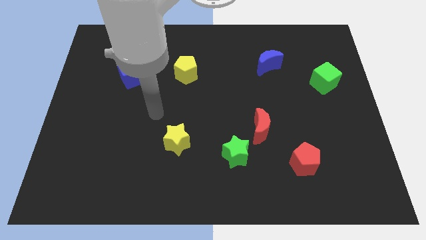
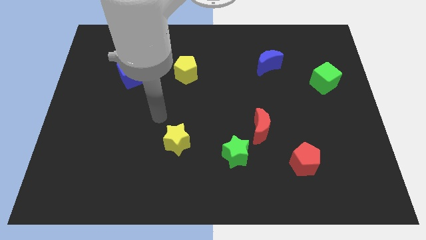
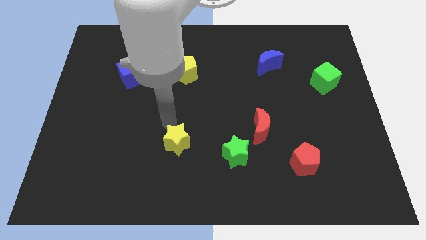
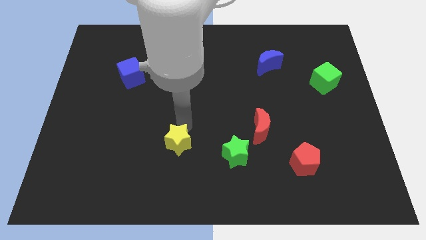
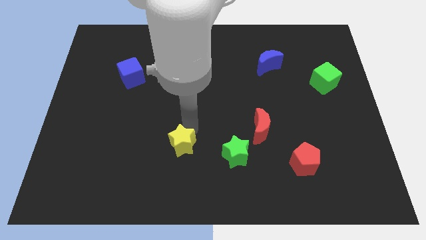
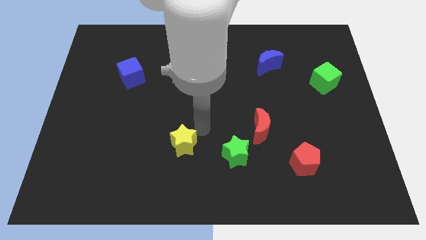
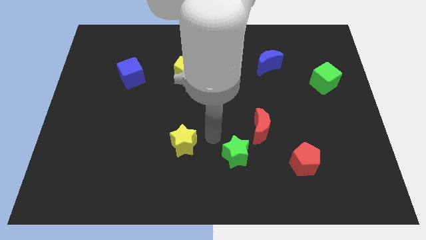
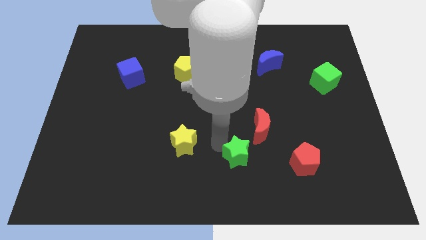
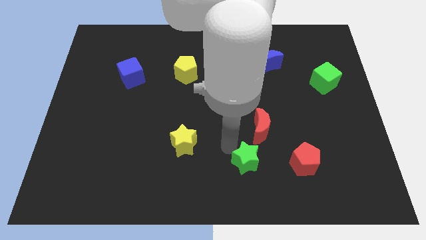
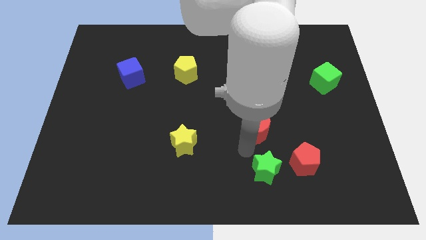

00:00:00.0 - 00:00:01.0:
move the red moon away from the green star

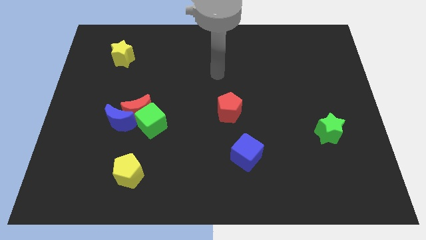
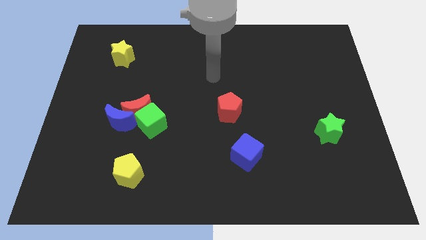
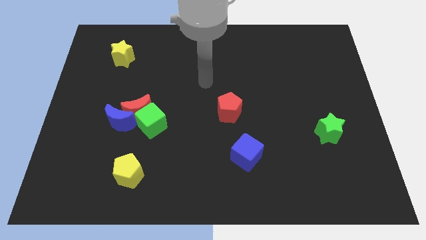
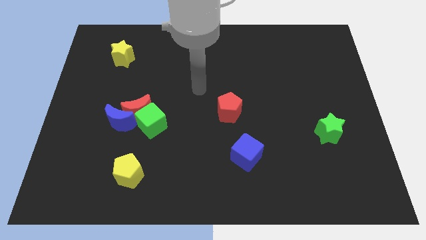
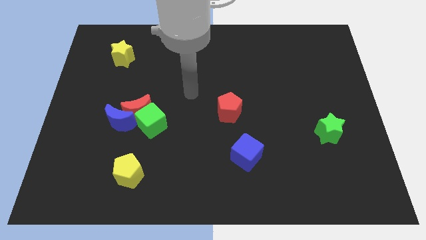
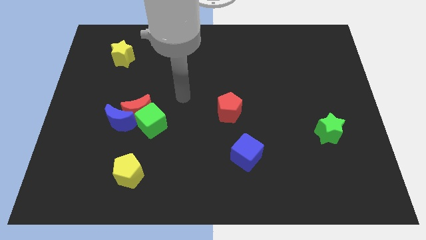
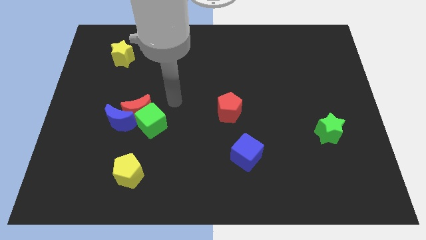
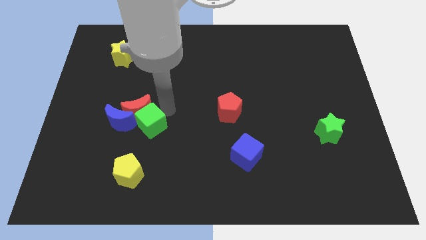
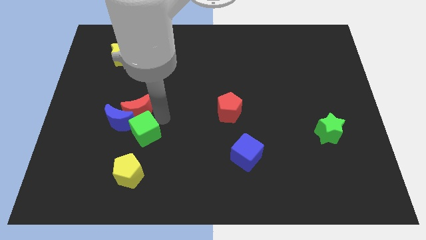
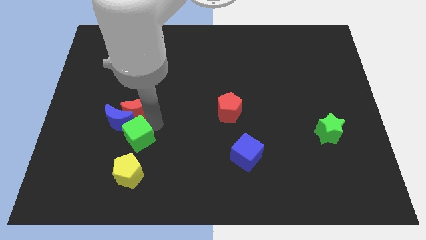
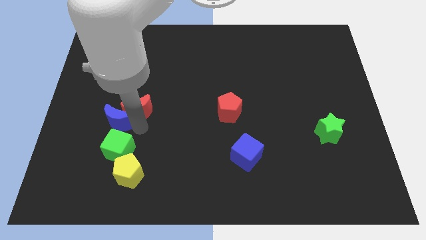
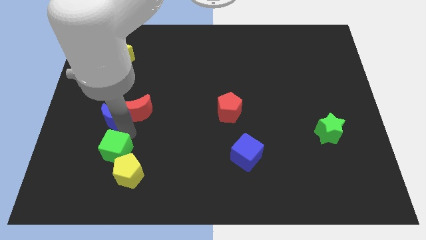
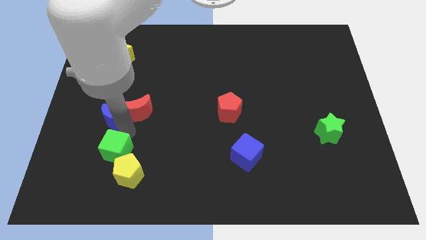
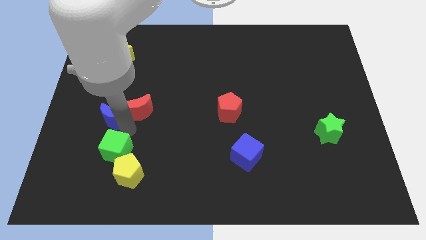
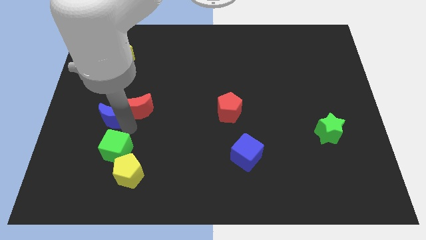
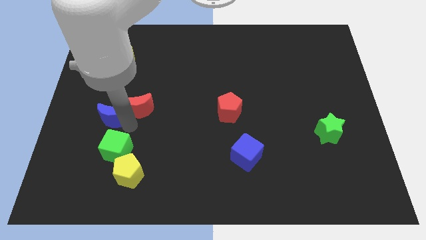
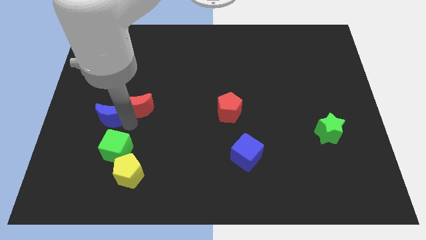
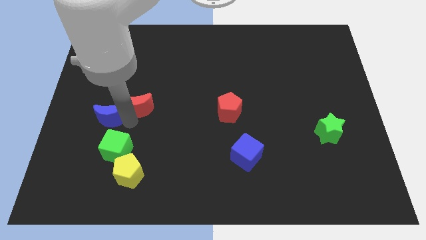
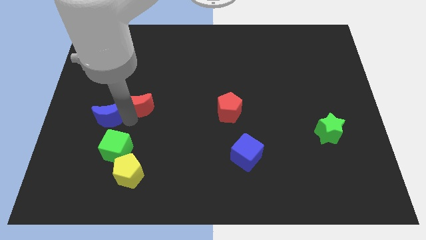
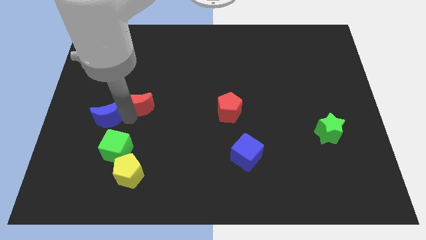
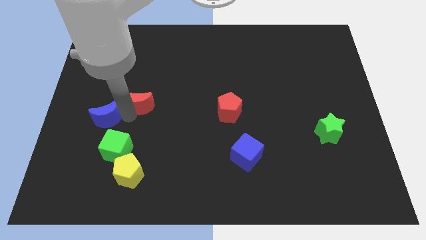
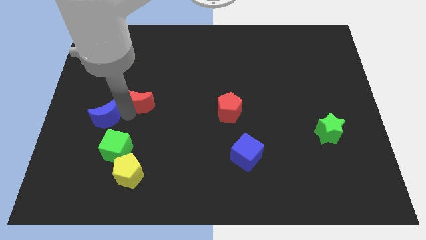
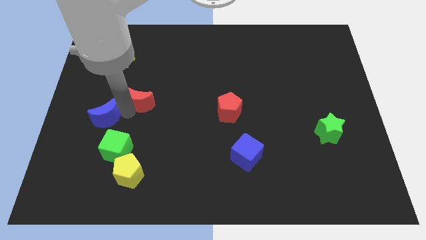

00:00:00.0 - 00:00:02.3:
pull the red moon apart from the green cube and blue moon

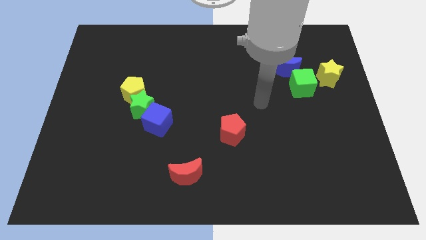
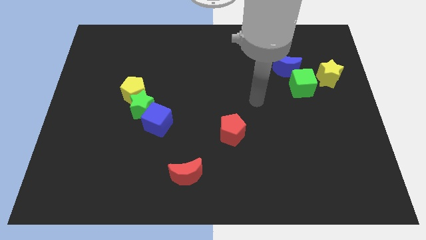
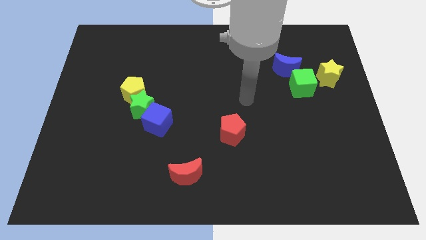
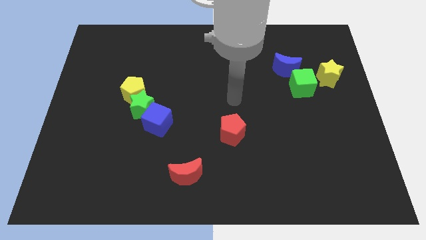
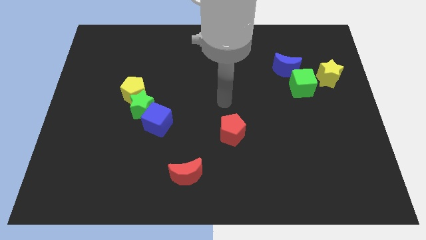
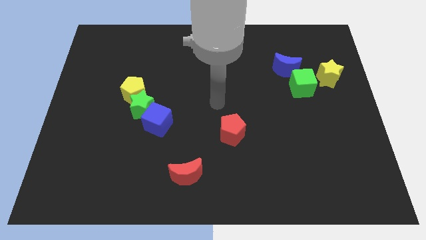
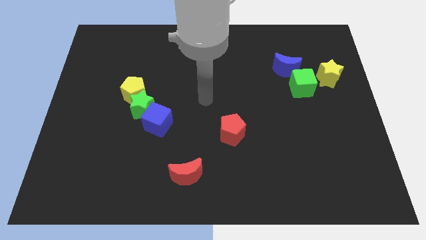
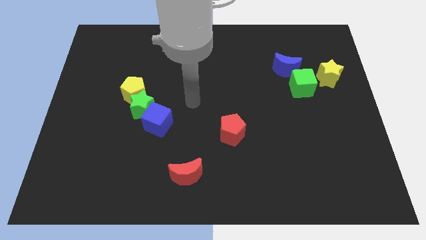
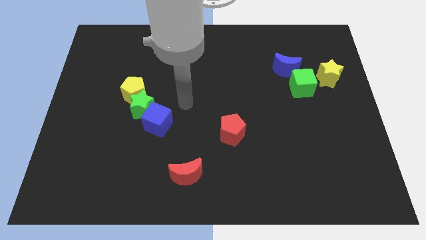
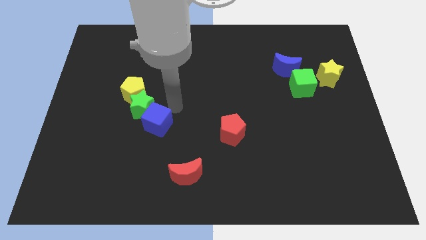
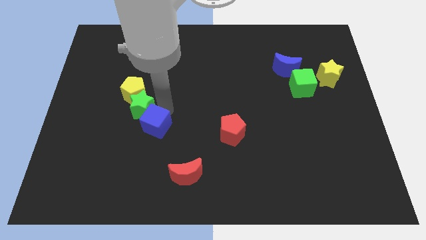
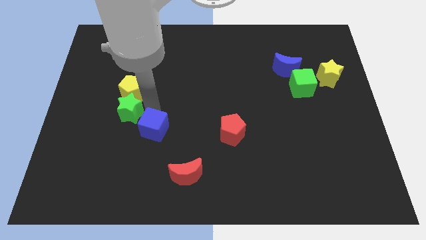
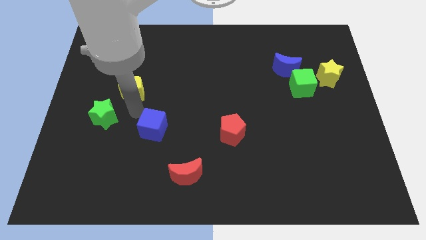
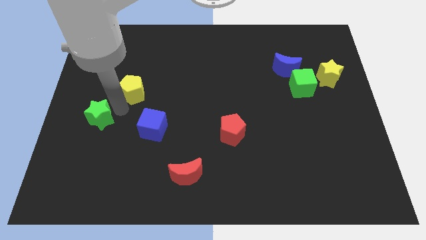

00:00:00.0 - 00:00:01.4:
move the yellow pentagon away from the green star

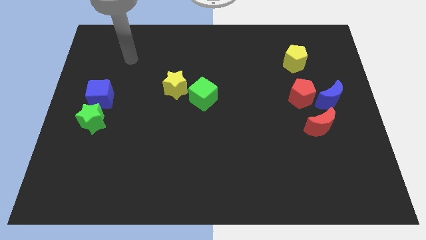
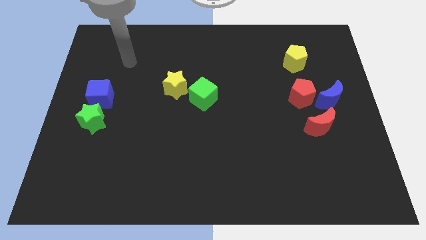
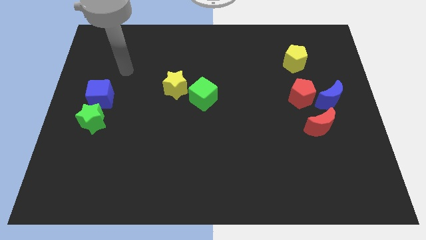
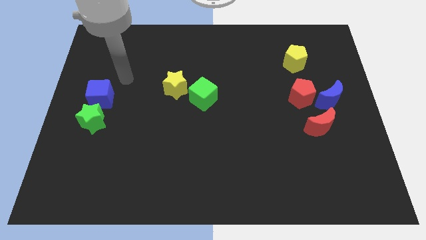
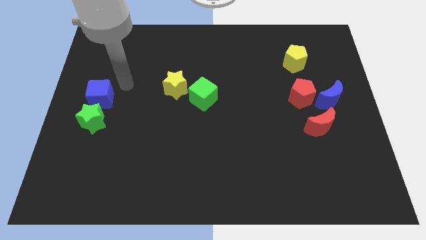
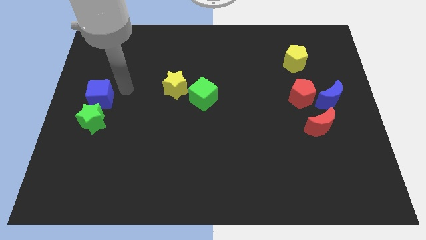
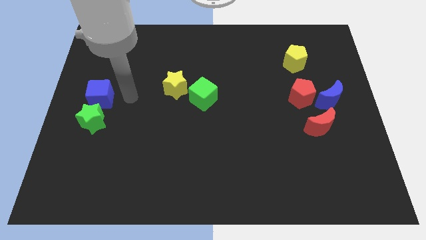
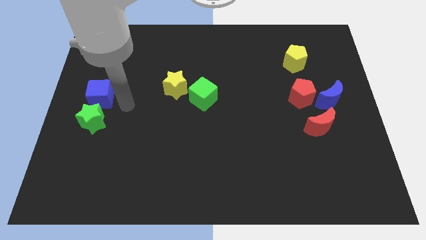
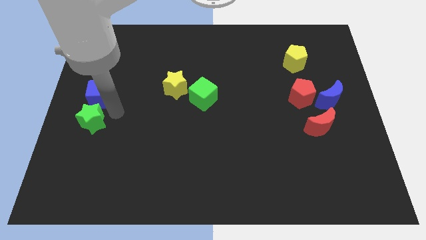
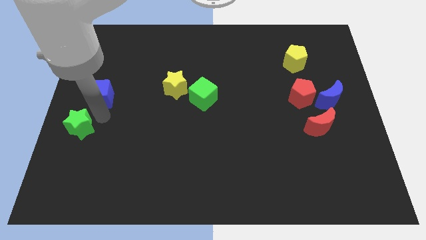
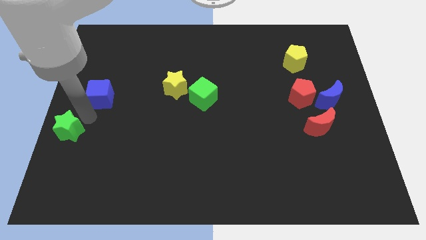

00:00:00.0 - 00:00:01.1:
separate the blue cube from the green star

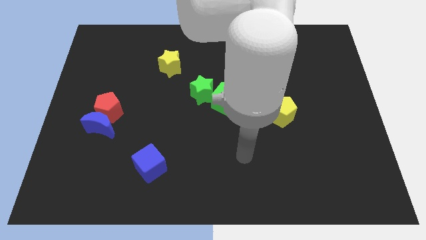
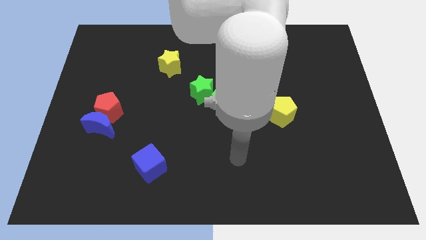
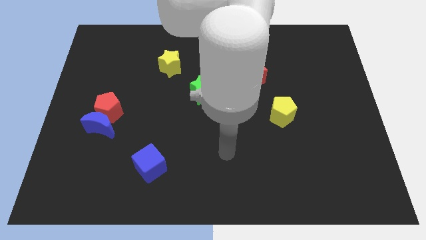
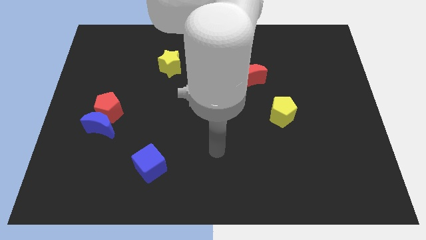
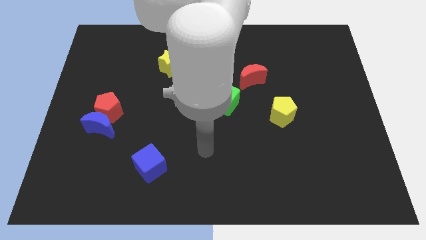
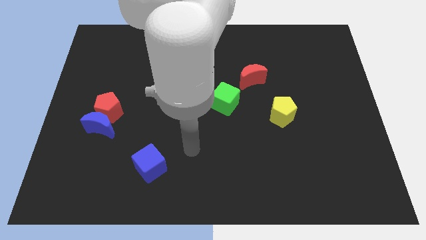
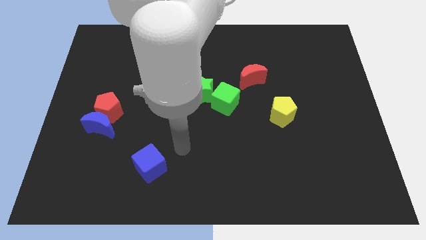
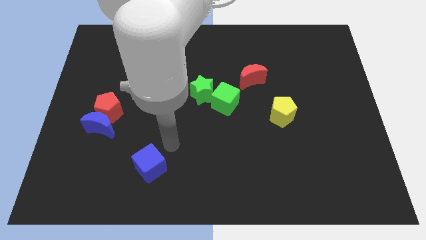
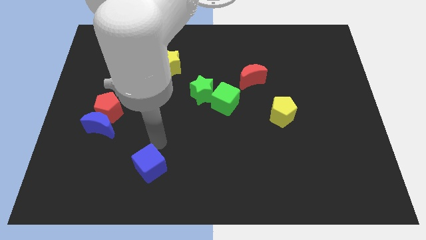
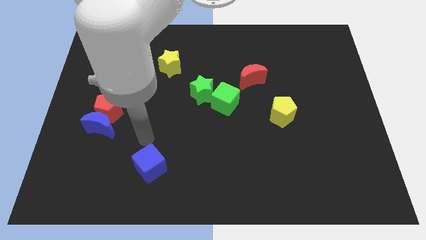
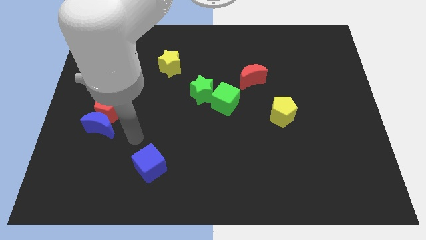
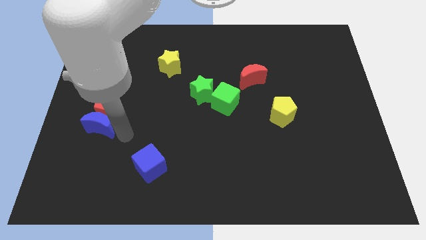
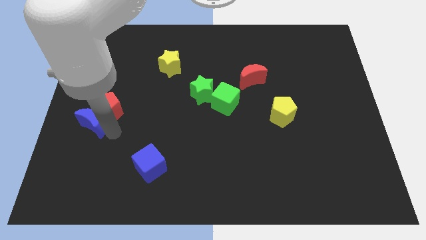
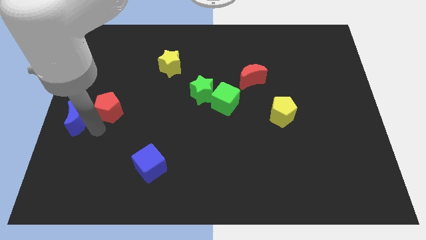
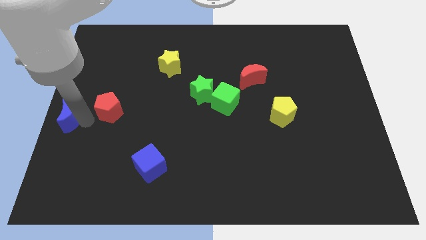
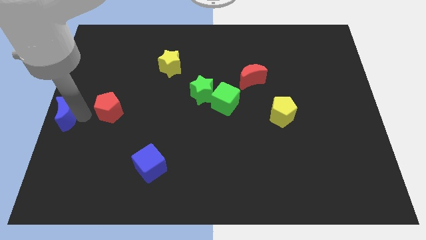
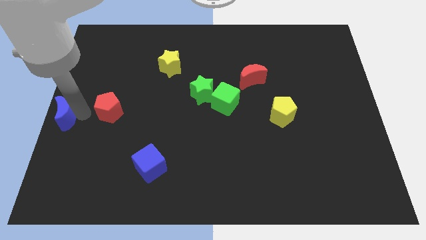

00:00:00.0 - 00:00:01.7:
move the red pentagon away from the blue moon

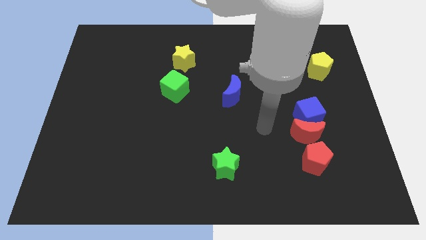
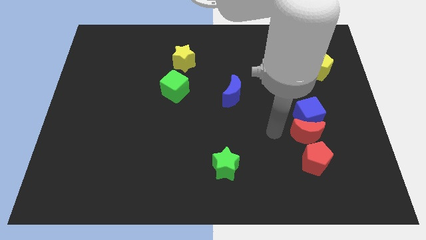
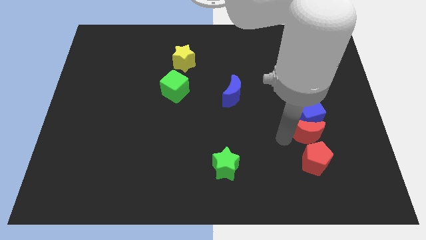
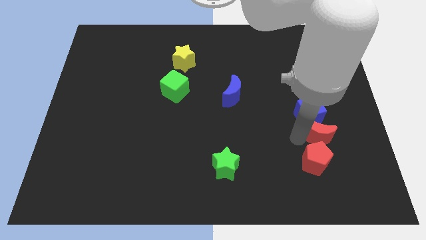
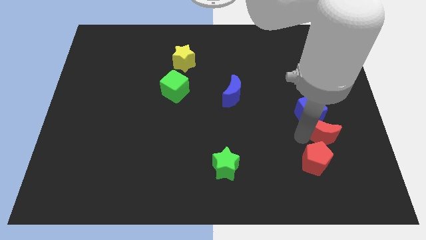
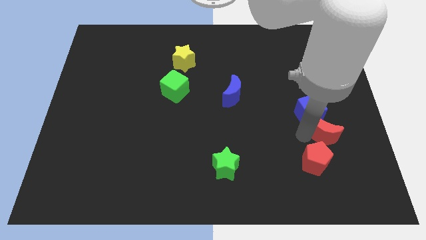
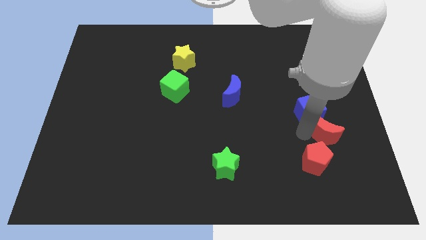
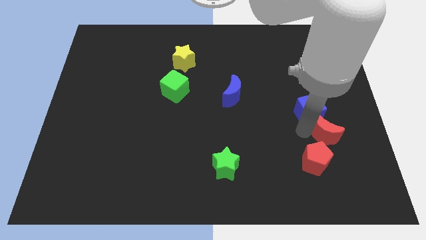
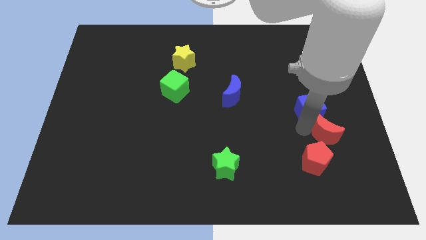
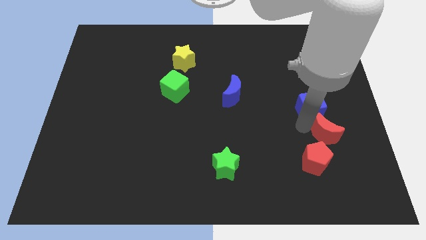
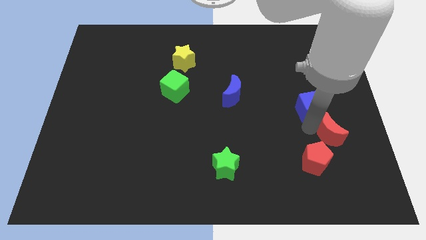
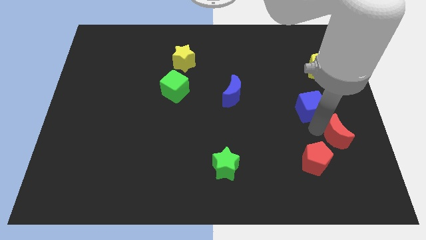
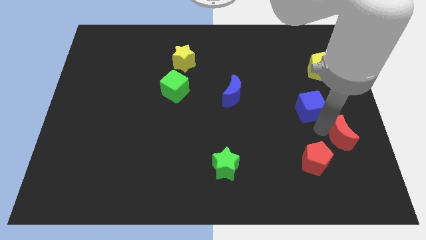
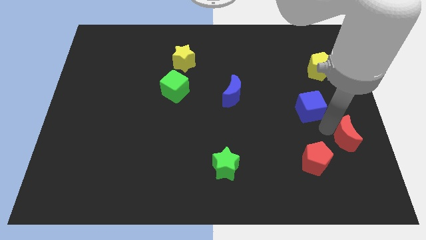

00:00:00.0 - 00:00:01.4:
separate the blue cube from the red moon

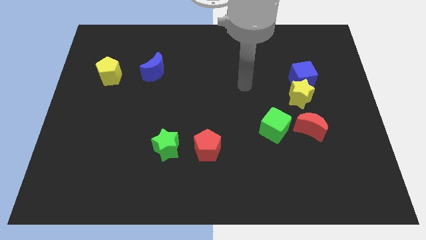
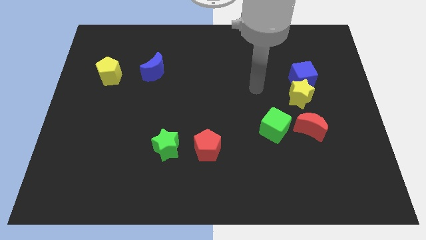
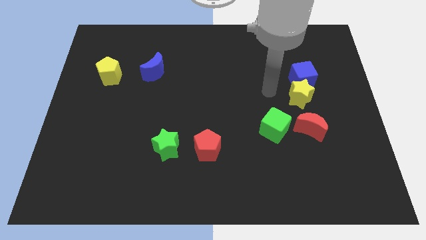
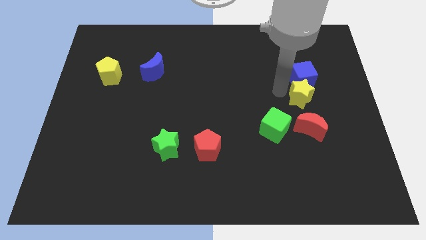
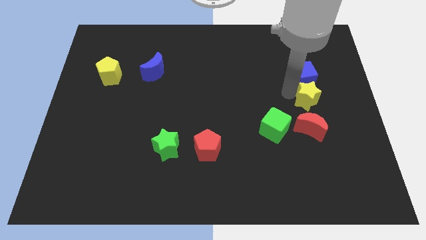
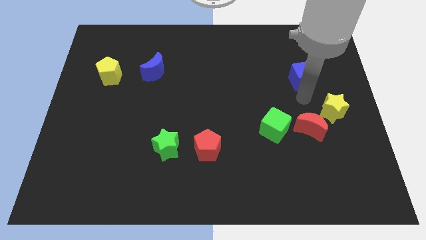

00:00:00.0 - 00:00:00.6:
move the blue cube away from the yellow star
